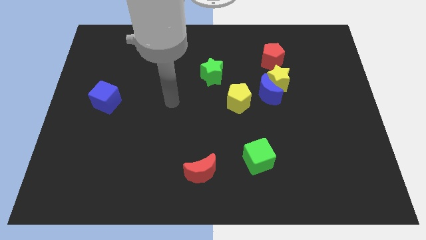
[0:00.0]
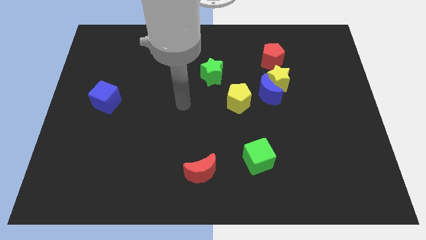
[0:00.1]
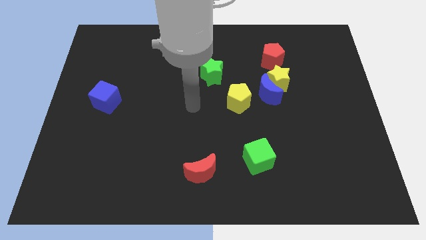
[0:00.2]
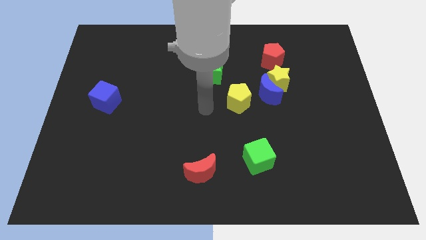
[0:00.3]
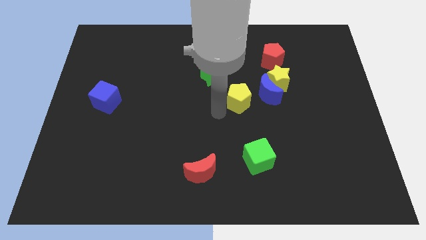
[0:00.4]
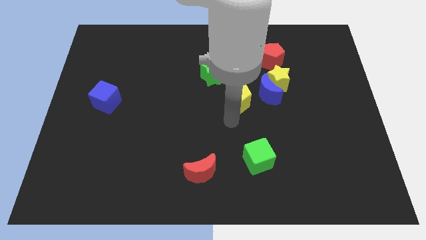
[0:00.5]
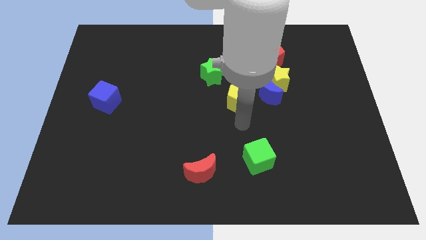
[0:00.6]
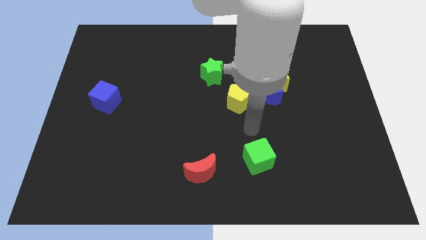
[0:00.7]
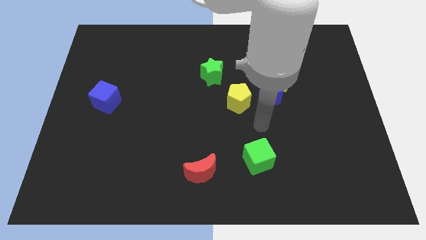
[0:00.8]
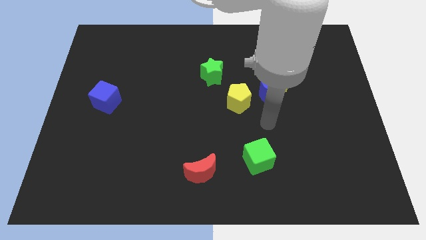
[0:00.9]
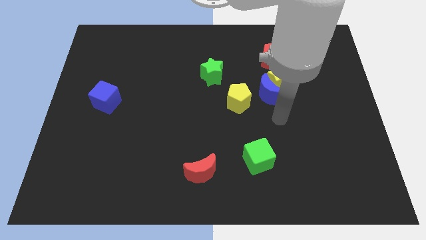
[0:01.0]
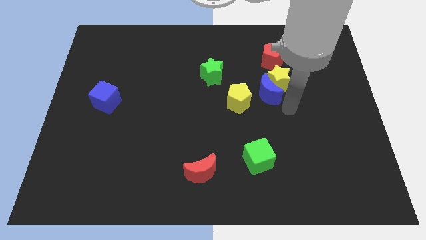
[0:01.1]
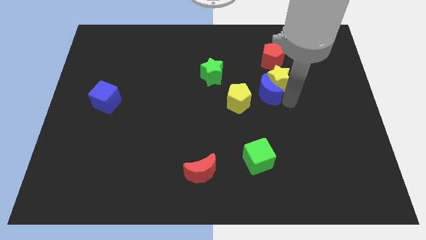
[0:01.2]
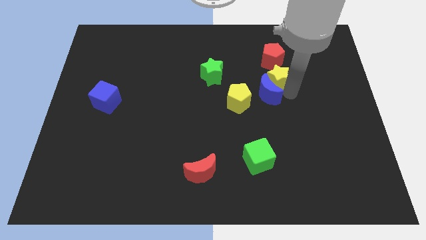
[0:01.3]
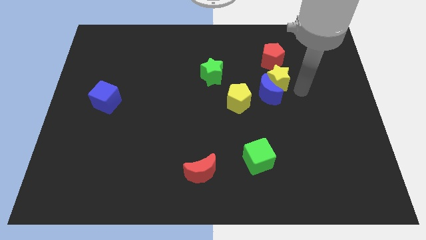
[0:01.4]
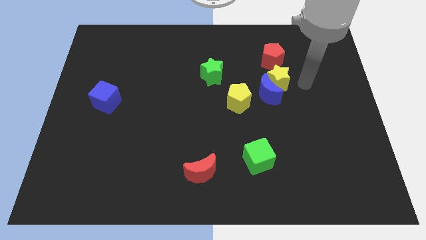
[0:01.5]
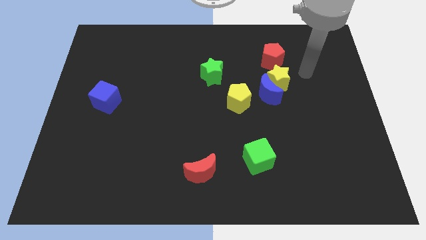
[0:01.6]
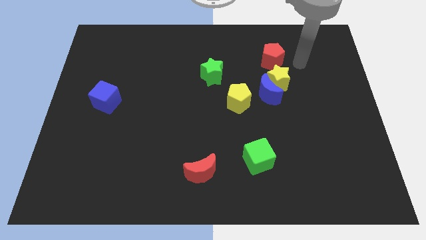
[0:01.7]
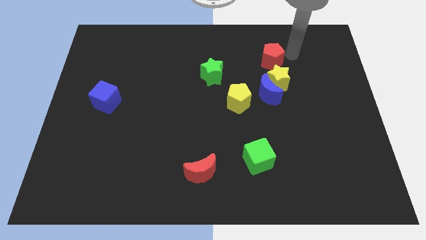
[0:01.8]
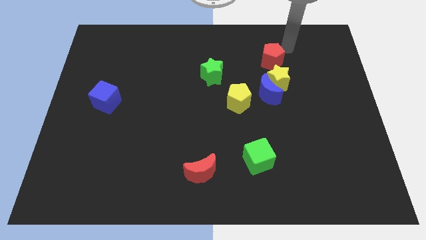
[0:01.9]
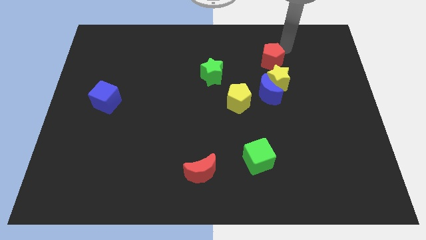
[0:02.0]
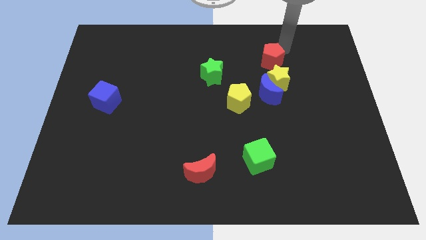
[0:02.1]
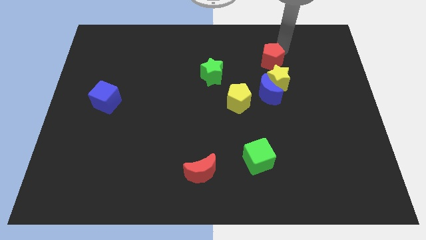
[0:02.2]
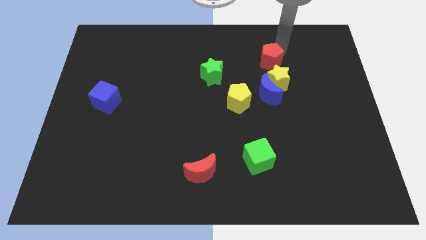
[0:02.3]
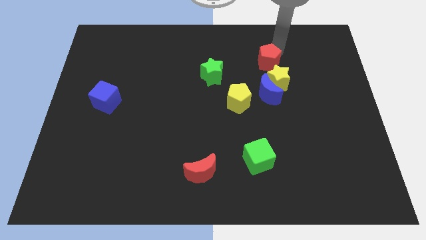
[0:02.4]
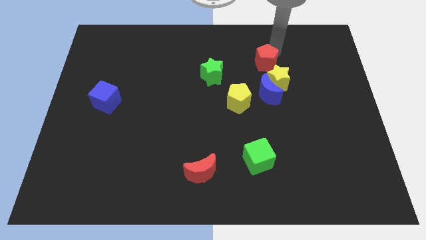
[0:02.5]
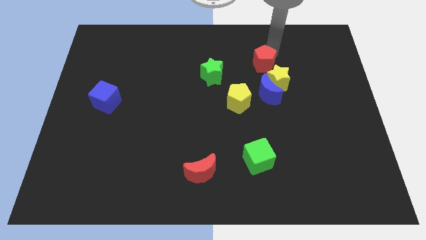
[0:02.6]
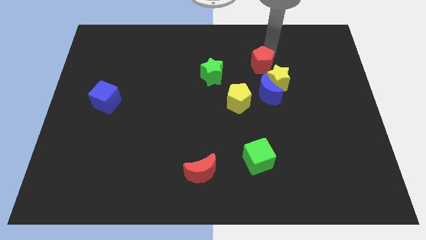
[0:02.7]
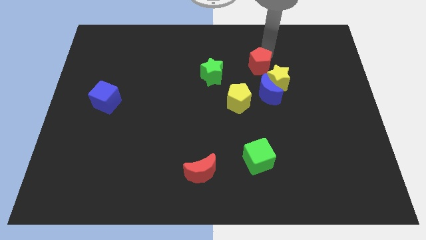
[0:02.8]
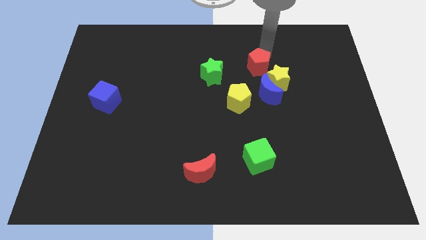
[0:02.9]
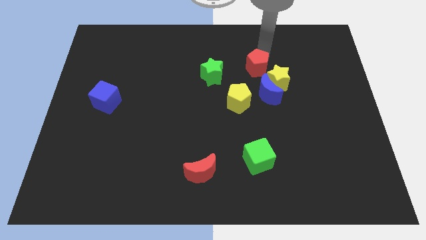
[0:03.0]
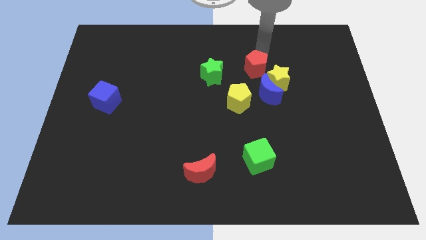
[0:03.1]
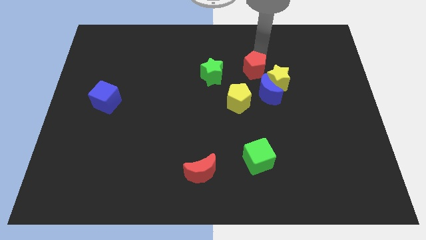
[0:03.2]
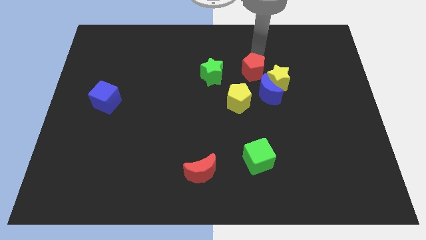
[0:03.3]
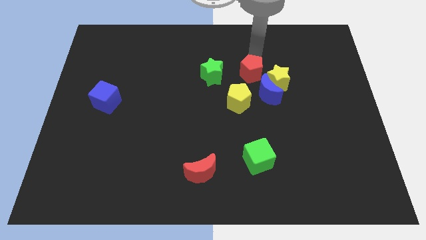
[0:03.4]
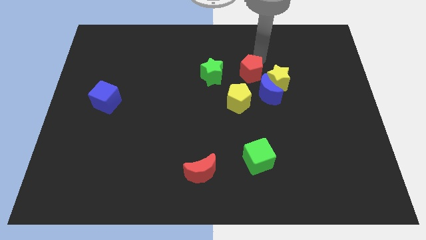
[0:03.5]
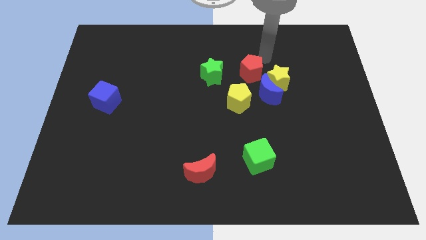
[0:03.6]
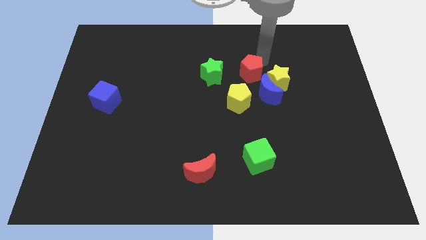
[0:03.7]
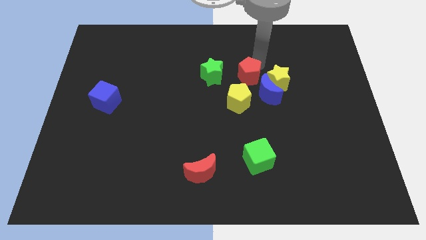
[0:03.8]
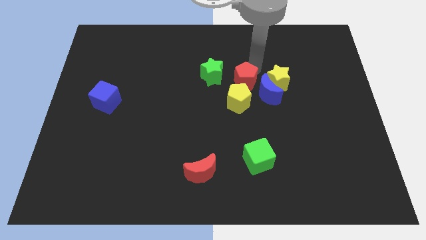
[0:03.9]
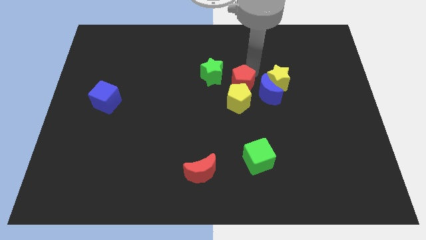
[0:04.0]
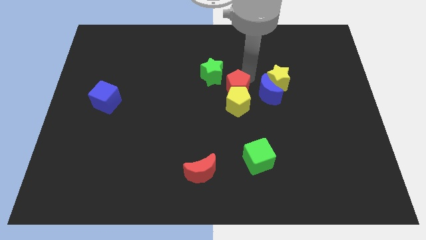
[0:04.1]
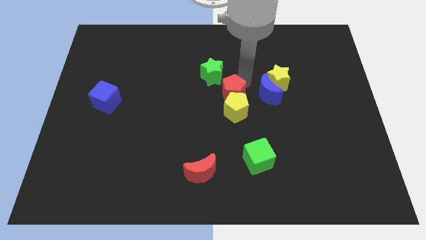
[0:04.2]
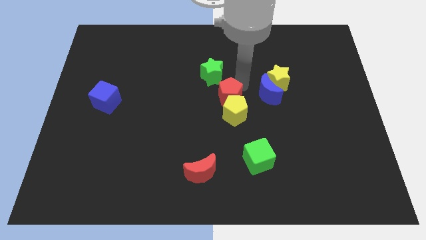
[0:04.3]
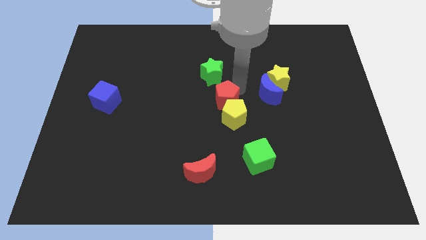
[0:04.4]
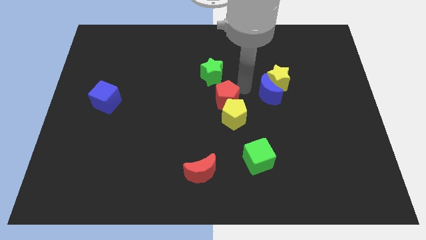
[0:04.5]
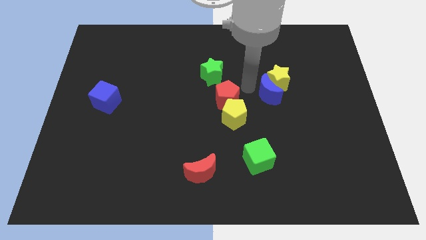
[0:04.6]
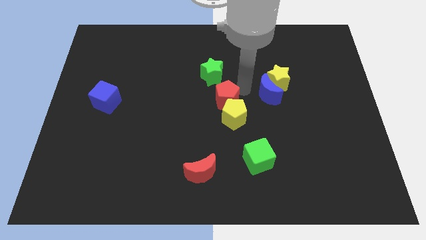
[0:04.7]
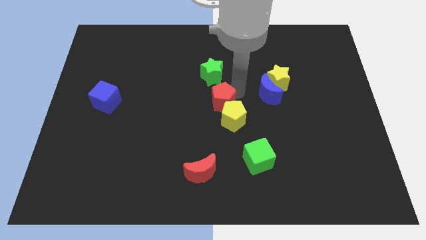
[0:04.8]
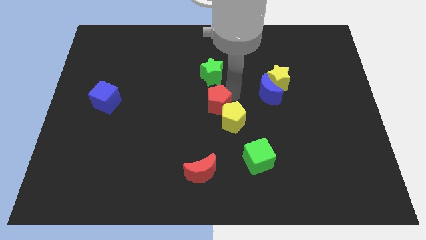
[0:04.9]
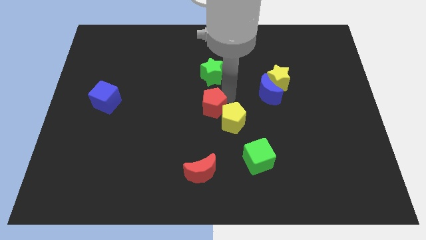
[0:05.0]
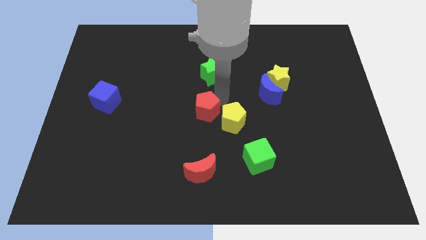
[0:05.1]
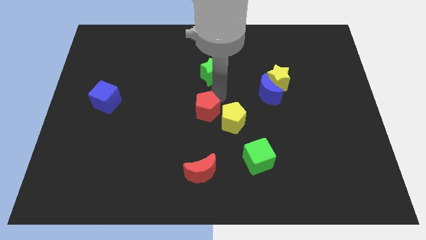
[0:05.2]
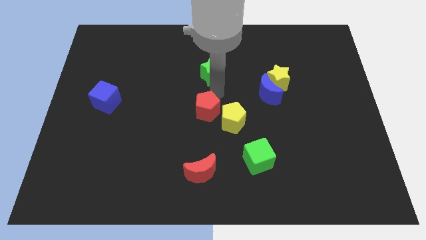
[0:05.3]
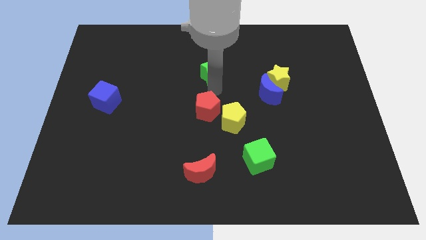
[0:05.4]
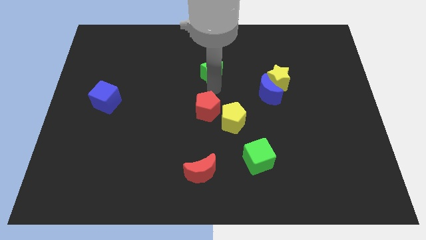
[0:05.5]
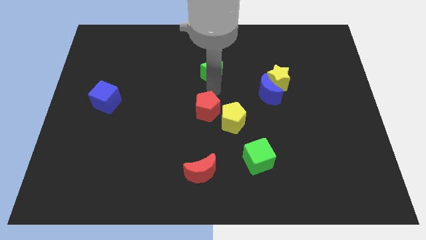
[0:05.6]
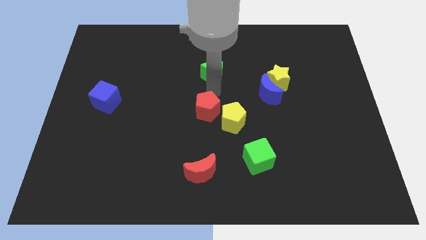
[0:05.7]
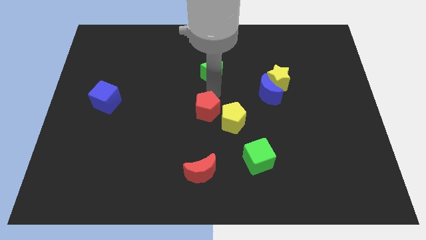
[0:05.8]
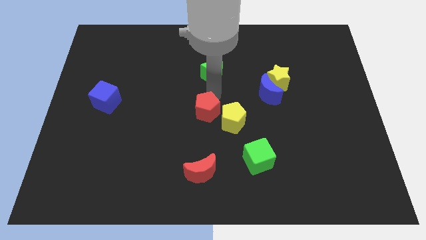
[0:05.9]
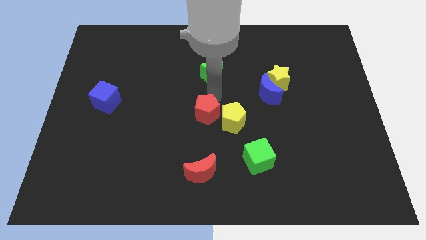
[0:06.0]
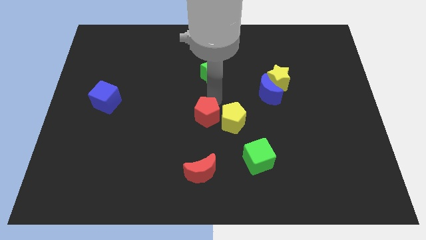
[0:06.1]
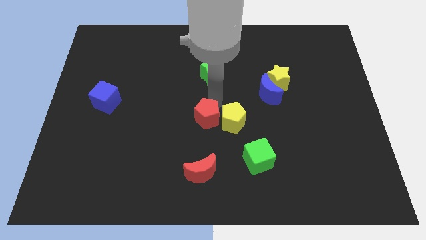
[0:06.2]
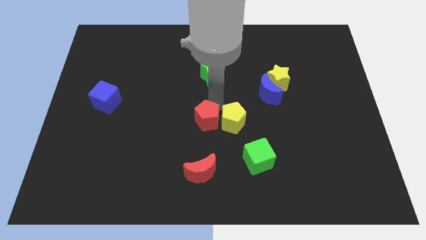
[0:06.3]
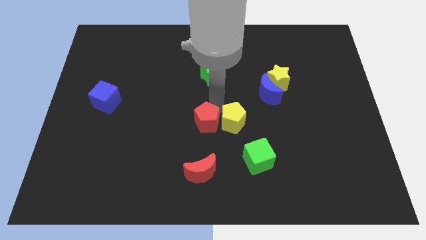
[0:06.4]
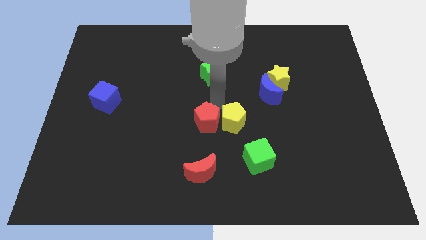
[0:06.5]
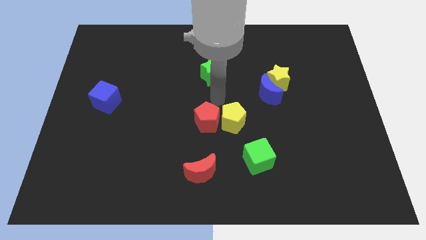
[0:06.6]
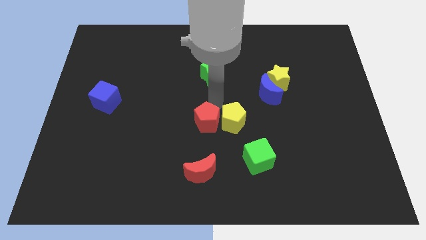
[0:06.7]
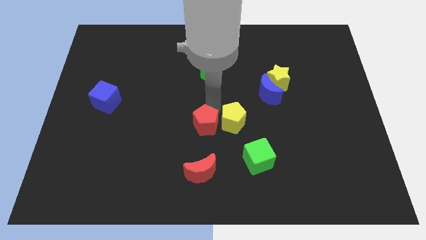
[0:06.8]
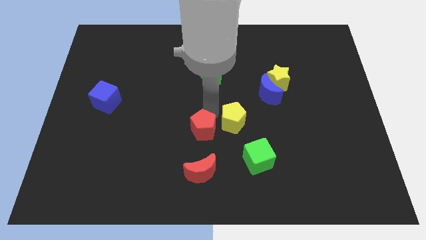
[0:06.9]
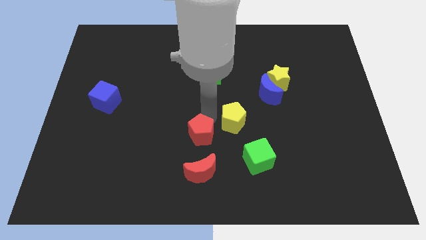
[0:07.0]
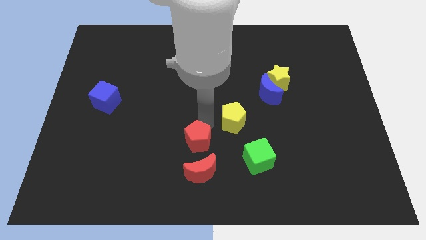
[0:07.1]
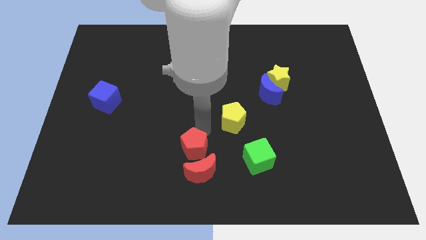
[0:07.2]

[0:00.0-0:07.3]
move the red pentagon to the left of the green cube
